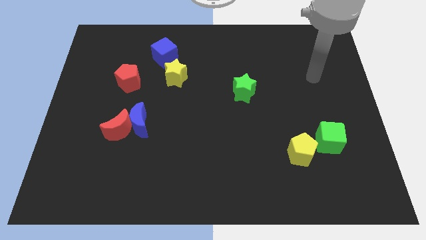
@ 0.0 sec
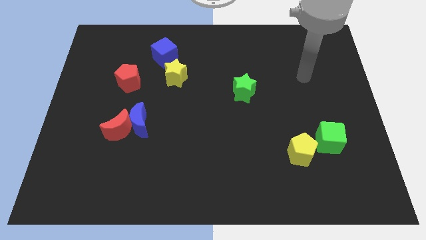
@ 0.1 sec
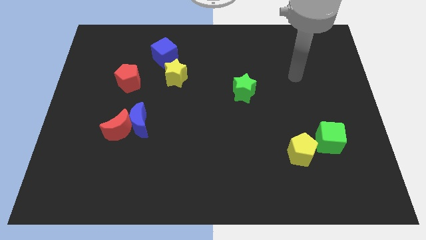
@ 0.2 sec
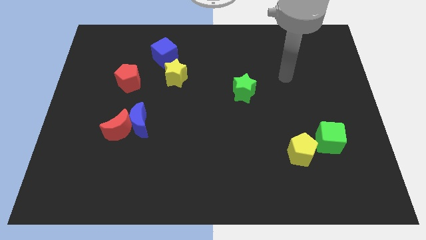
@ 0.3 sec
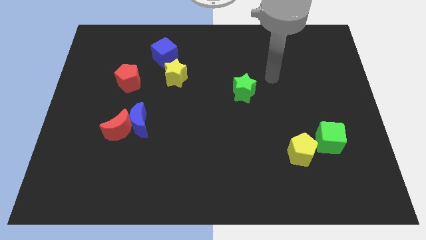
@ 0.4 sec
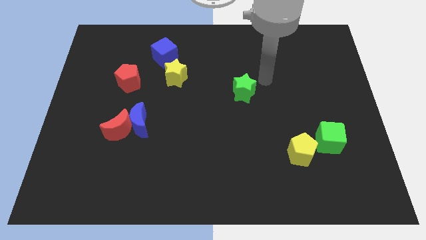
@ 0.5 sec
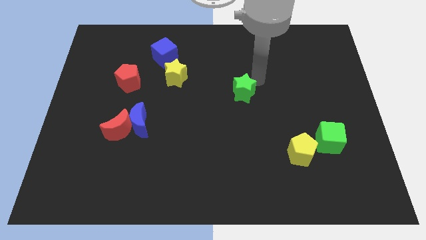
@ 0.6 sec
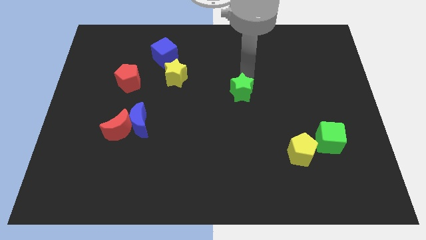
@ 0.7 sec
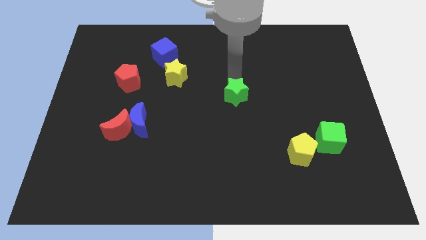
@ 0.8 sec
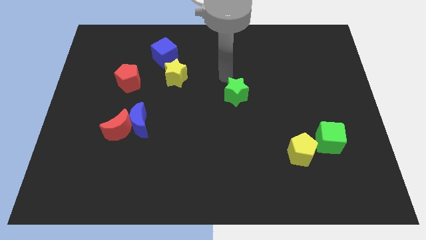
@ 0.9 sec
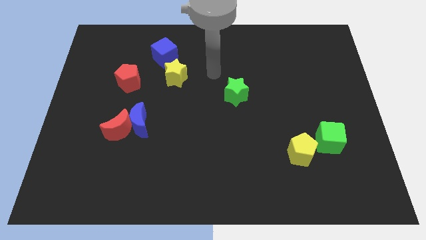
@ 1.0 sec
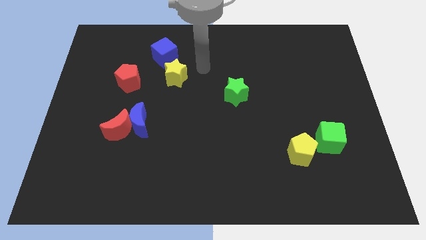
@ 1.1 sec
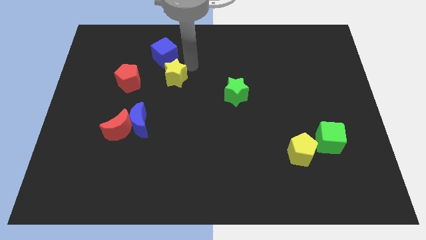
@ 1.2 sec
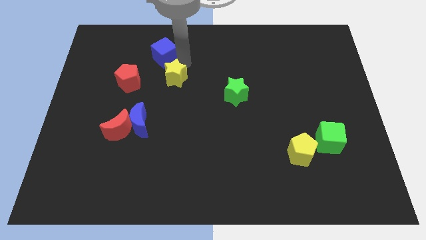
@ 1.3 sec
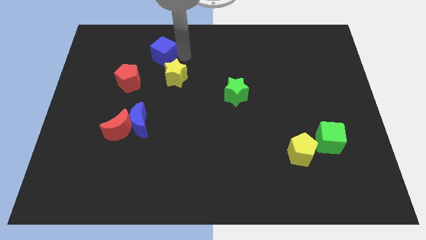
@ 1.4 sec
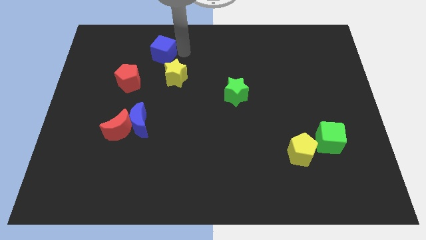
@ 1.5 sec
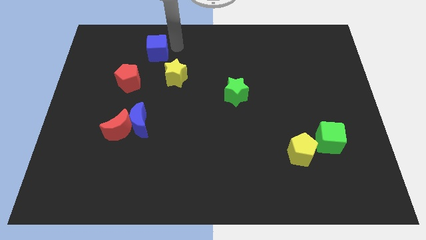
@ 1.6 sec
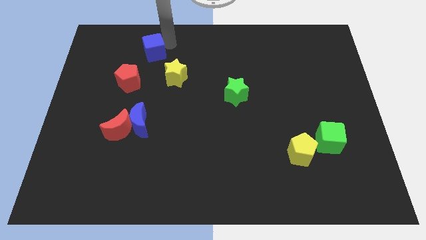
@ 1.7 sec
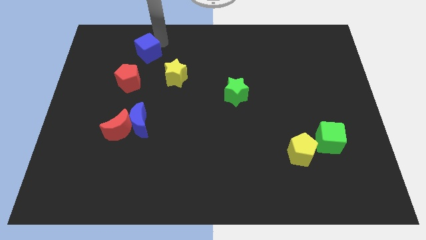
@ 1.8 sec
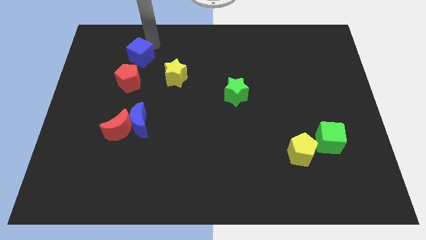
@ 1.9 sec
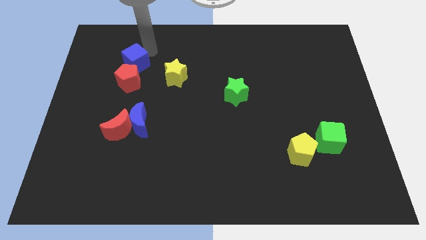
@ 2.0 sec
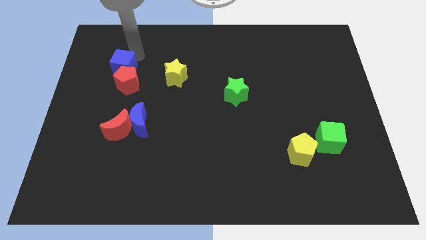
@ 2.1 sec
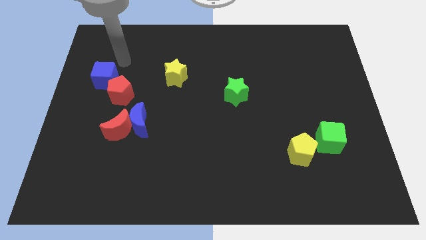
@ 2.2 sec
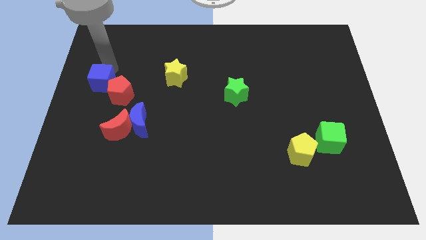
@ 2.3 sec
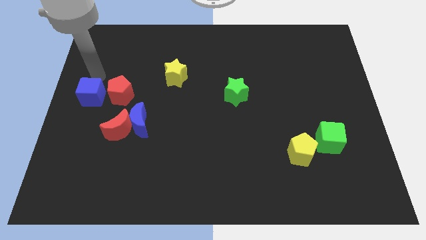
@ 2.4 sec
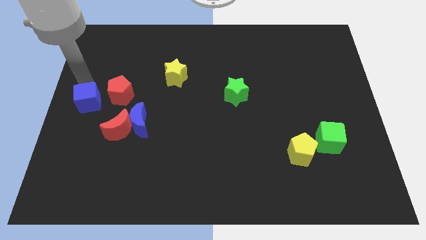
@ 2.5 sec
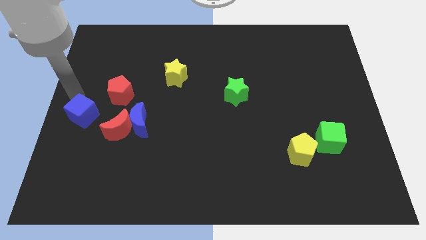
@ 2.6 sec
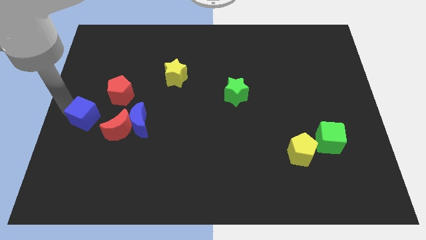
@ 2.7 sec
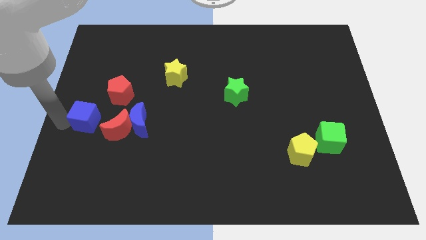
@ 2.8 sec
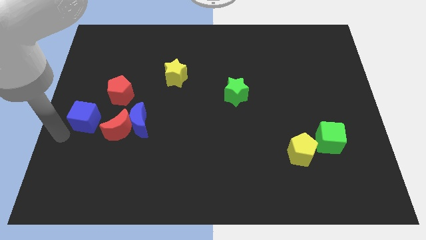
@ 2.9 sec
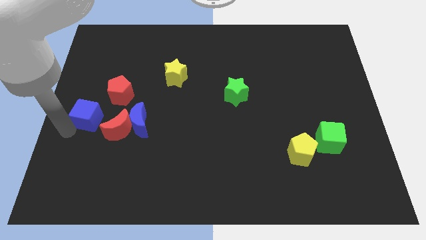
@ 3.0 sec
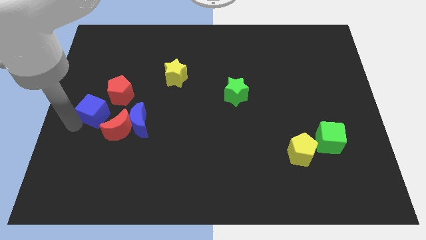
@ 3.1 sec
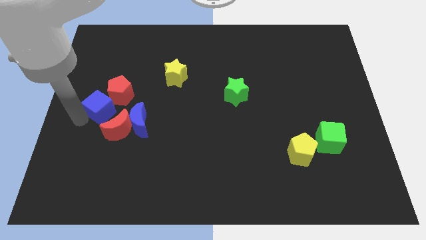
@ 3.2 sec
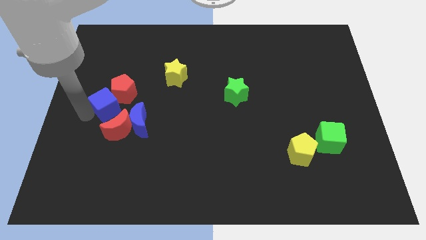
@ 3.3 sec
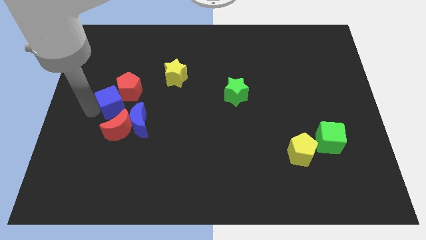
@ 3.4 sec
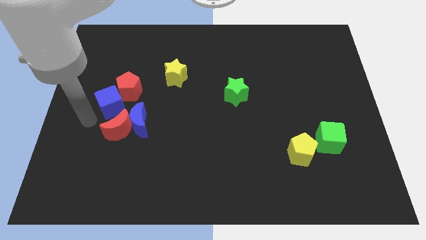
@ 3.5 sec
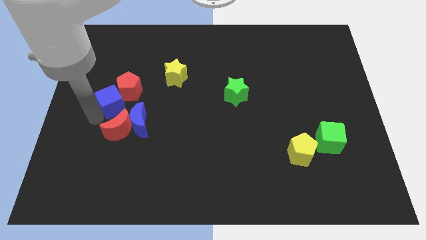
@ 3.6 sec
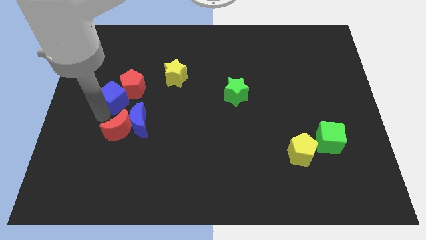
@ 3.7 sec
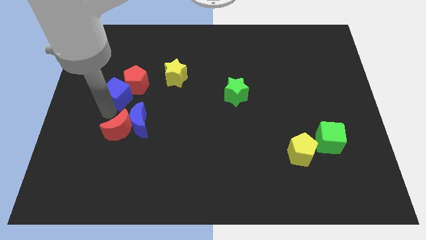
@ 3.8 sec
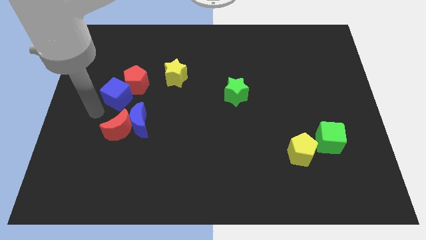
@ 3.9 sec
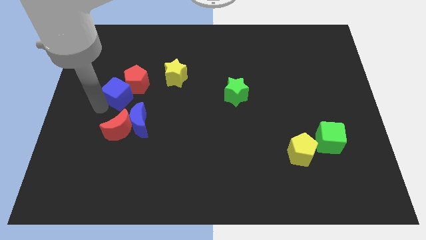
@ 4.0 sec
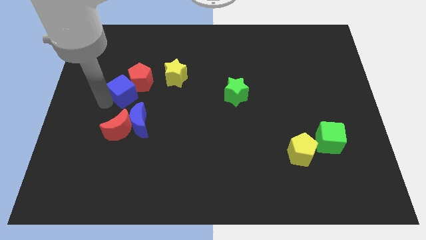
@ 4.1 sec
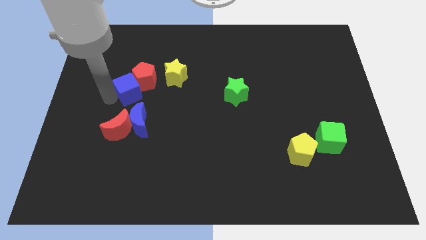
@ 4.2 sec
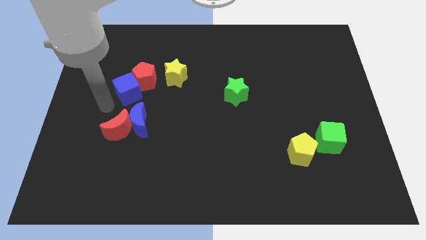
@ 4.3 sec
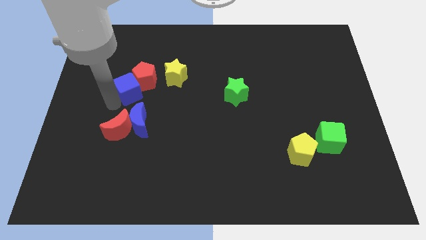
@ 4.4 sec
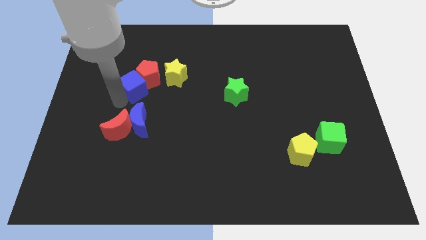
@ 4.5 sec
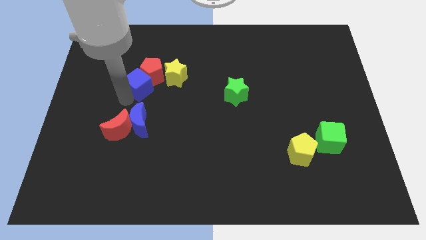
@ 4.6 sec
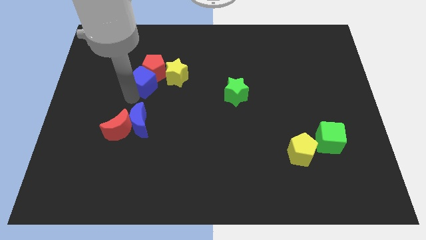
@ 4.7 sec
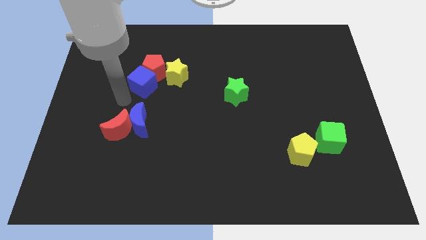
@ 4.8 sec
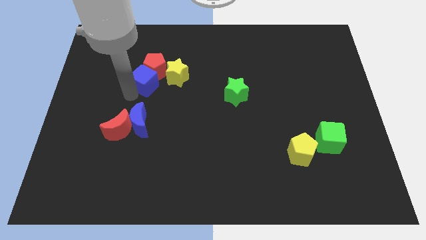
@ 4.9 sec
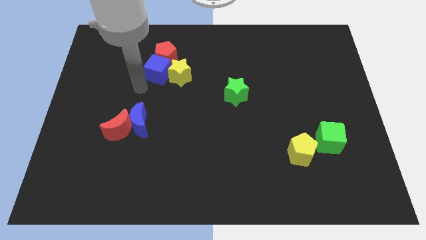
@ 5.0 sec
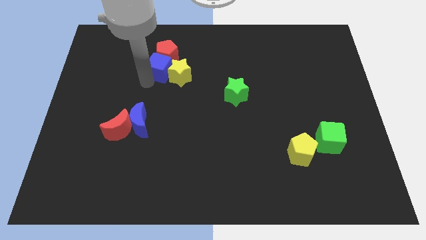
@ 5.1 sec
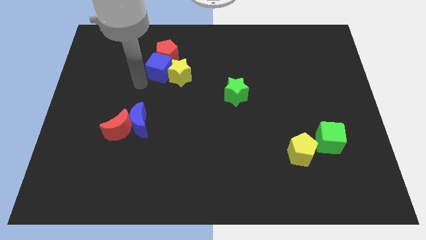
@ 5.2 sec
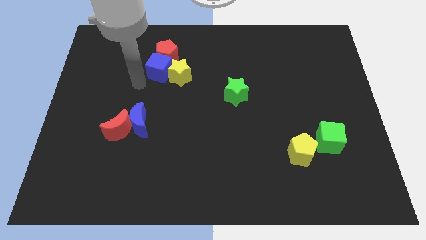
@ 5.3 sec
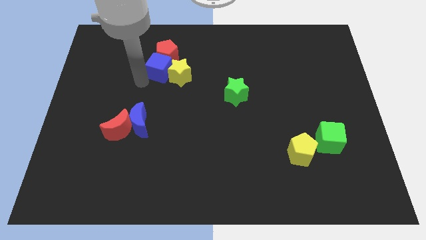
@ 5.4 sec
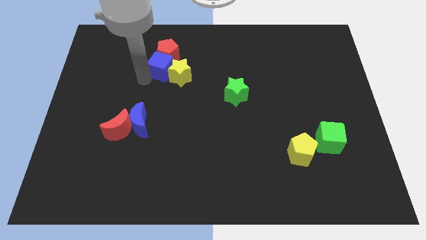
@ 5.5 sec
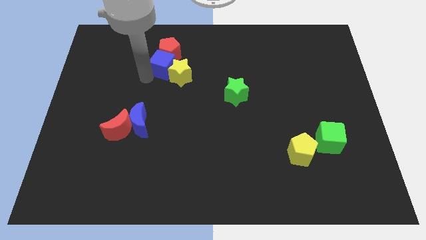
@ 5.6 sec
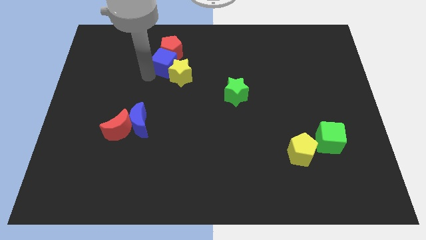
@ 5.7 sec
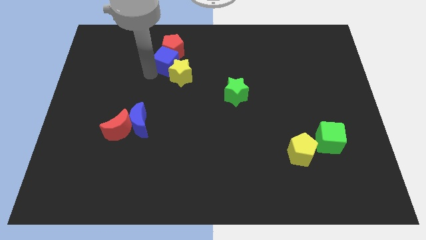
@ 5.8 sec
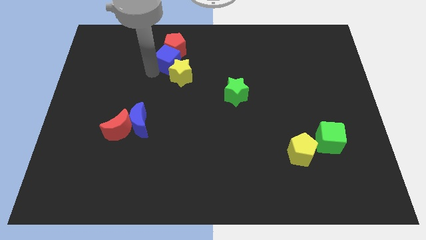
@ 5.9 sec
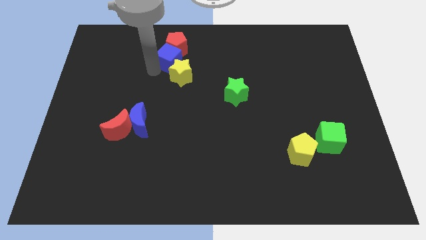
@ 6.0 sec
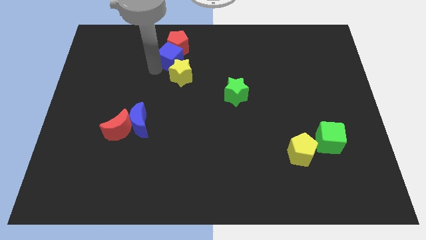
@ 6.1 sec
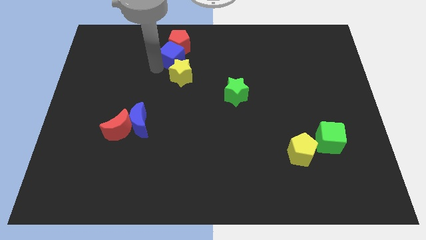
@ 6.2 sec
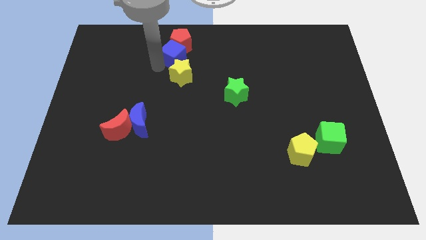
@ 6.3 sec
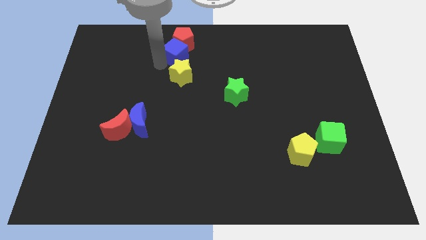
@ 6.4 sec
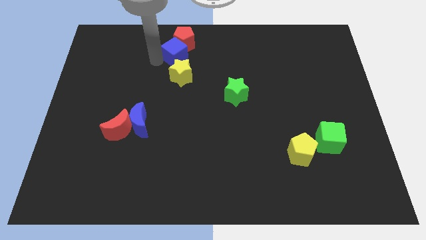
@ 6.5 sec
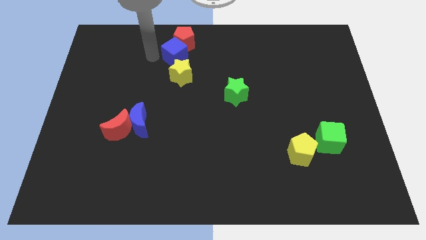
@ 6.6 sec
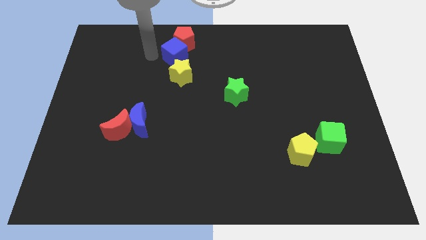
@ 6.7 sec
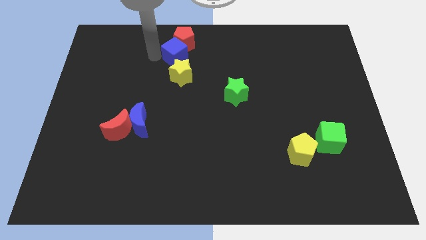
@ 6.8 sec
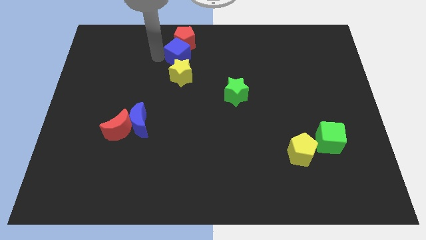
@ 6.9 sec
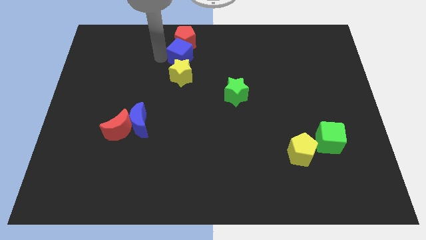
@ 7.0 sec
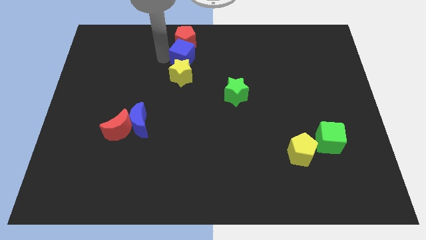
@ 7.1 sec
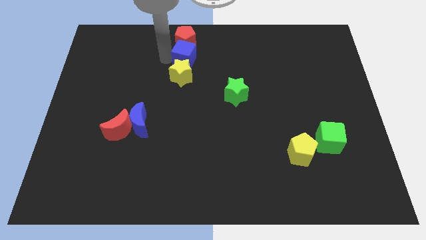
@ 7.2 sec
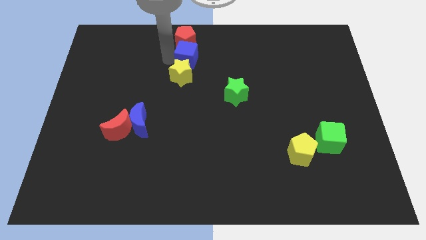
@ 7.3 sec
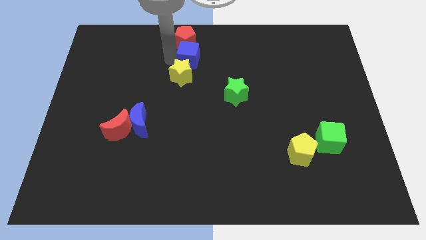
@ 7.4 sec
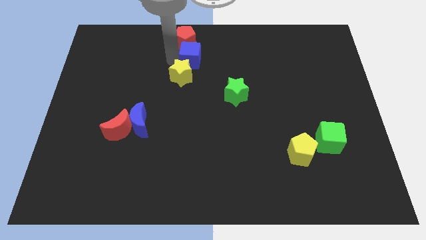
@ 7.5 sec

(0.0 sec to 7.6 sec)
slightly move the blue cube to the right
